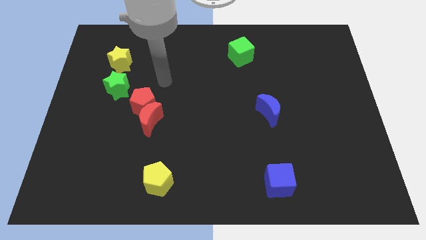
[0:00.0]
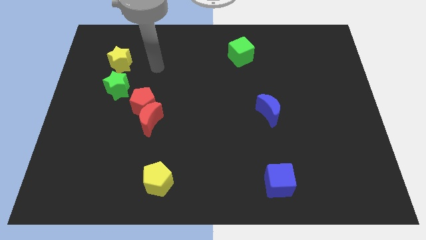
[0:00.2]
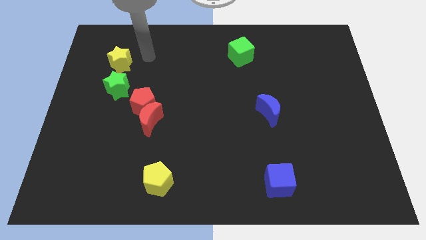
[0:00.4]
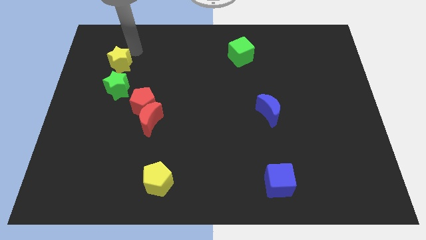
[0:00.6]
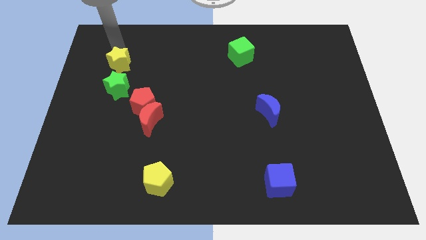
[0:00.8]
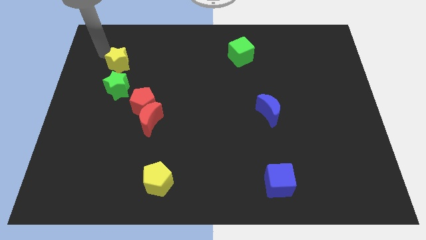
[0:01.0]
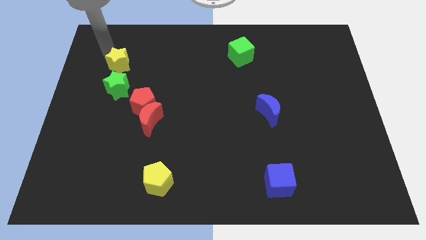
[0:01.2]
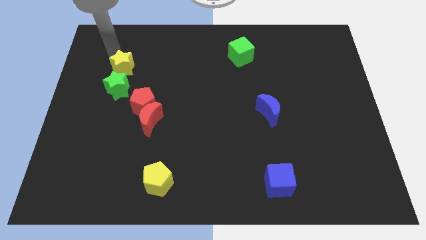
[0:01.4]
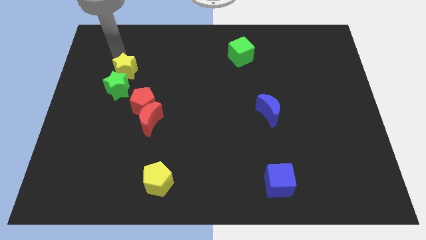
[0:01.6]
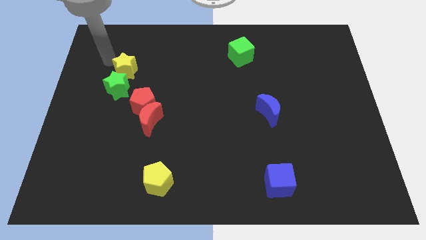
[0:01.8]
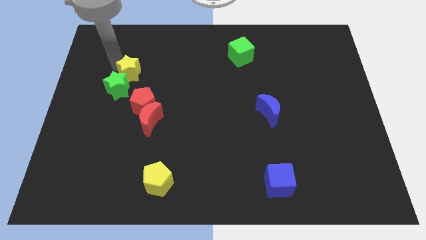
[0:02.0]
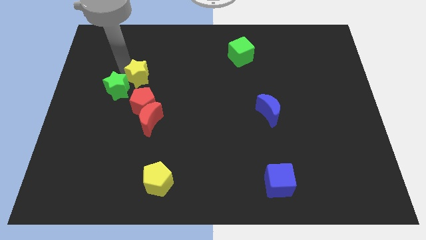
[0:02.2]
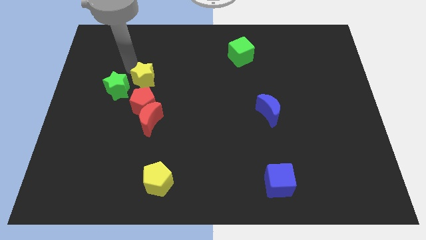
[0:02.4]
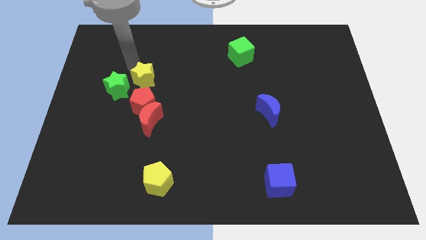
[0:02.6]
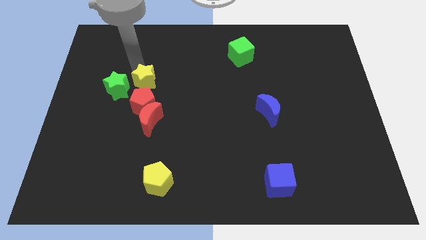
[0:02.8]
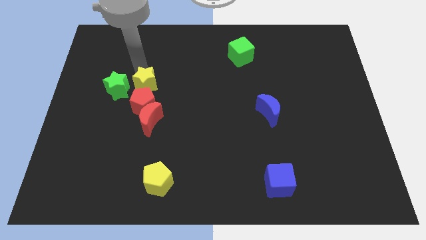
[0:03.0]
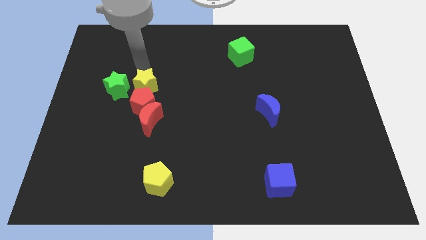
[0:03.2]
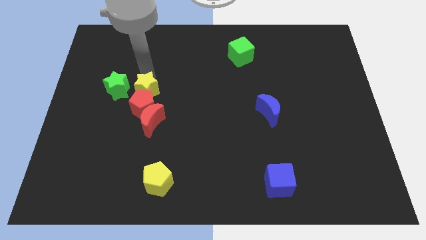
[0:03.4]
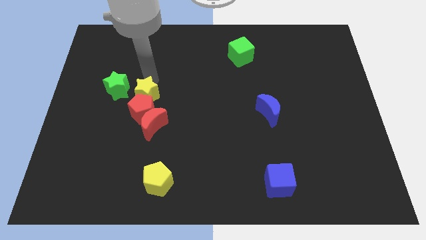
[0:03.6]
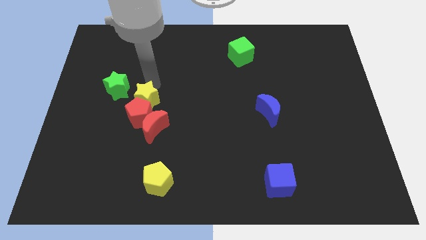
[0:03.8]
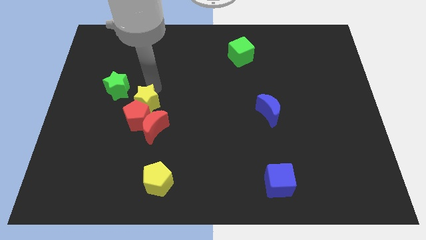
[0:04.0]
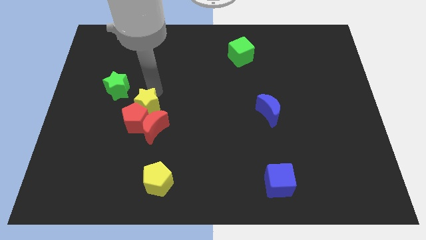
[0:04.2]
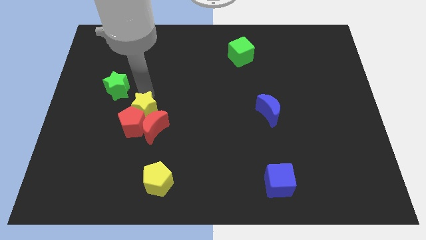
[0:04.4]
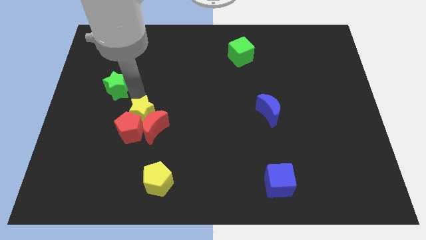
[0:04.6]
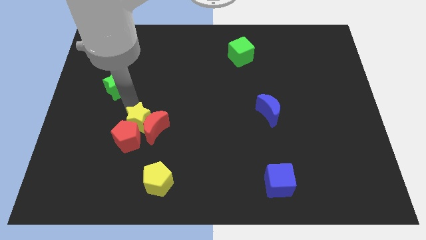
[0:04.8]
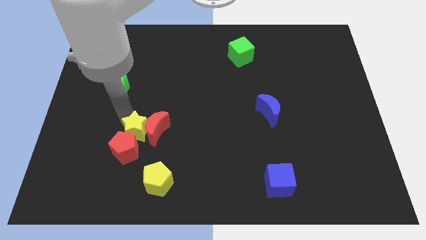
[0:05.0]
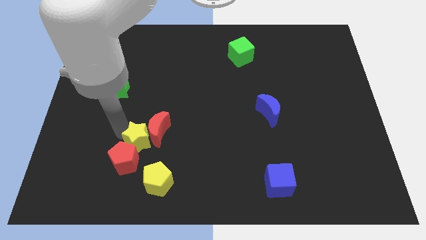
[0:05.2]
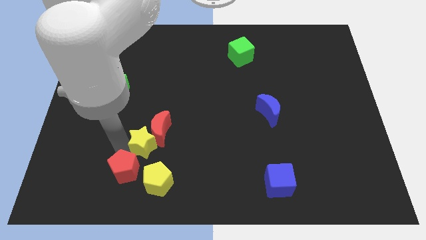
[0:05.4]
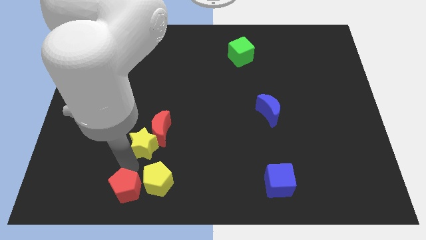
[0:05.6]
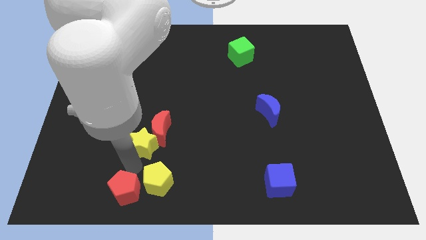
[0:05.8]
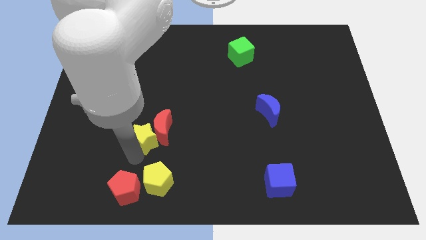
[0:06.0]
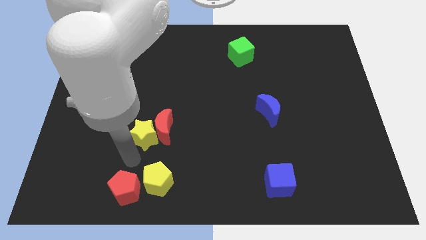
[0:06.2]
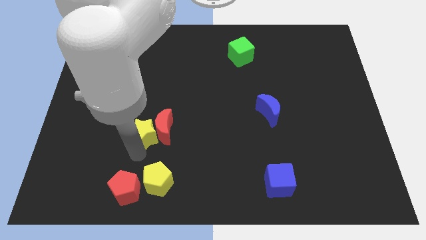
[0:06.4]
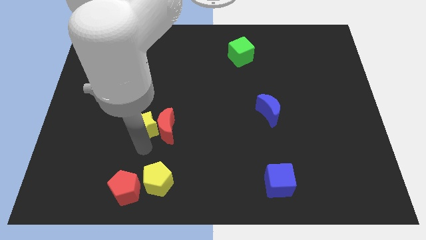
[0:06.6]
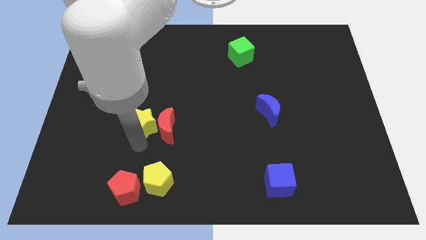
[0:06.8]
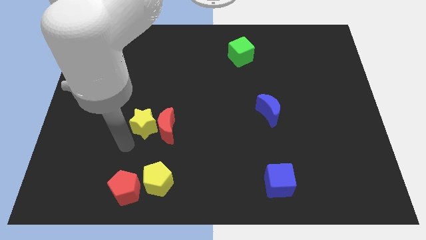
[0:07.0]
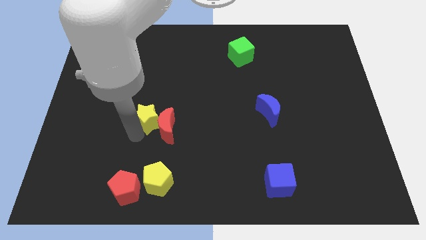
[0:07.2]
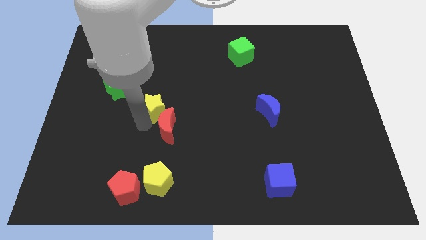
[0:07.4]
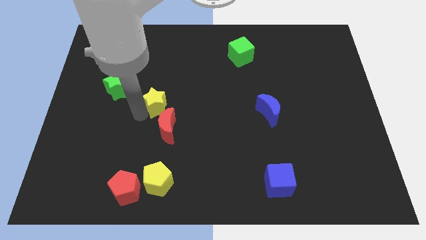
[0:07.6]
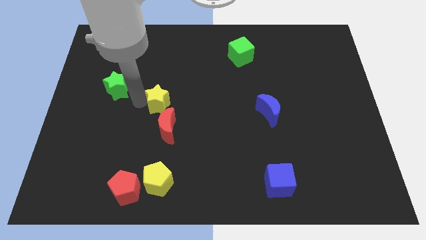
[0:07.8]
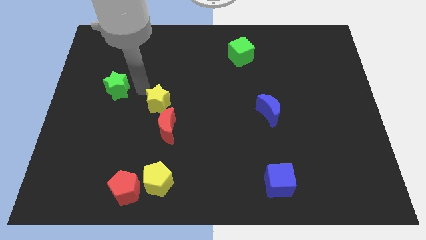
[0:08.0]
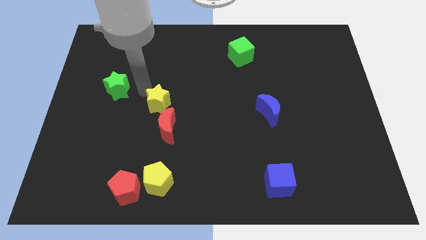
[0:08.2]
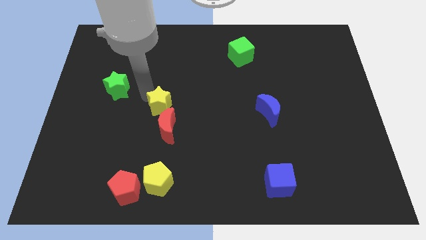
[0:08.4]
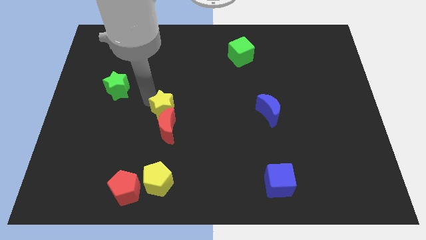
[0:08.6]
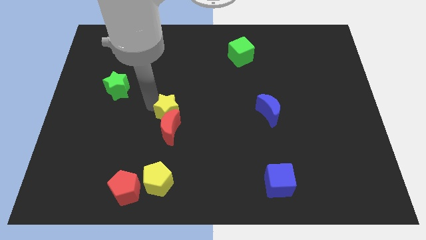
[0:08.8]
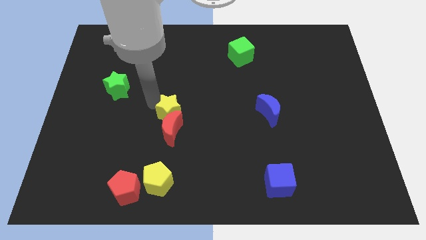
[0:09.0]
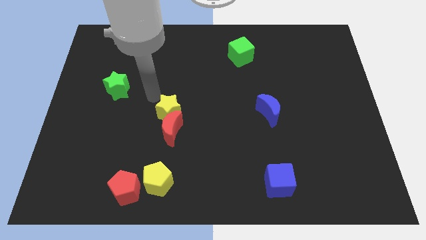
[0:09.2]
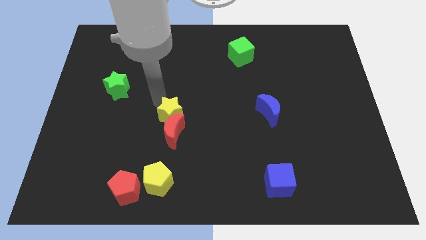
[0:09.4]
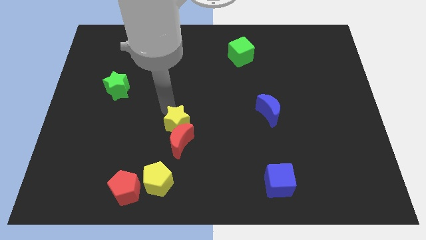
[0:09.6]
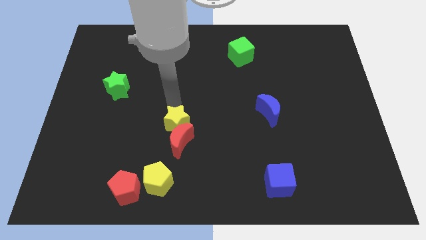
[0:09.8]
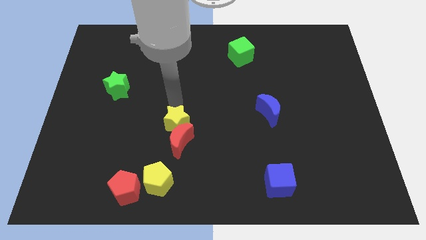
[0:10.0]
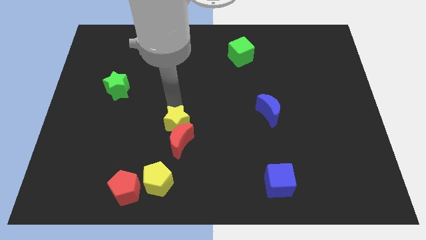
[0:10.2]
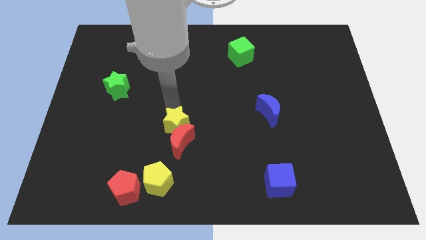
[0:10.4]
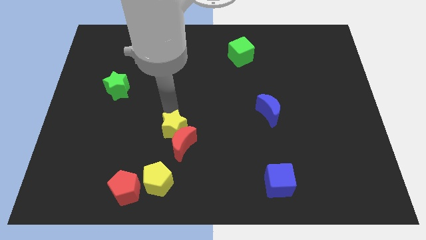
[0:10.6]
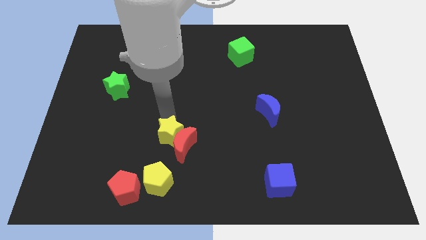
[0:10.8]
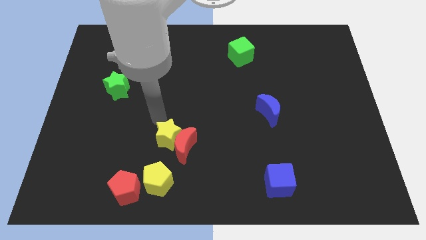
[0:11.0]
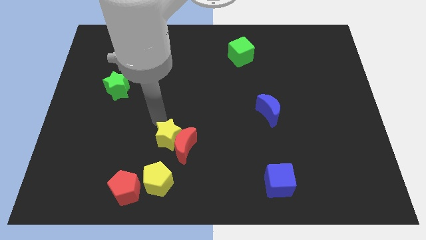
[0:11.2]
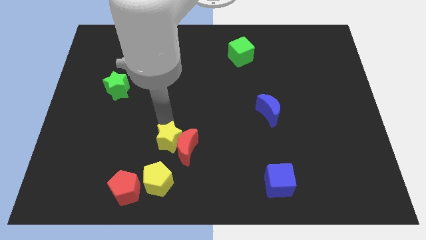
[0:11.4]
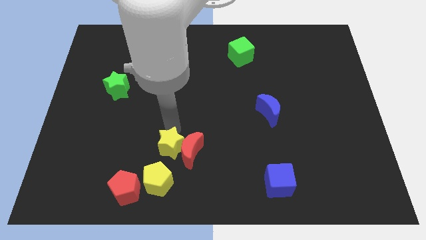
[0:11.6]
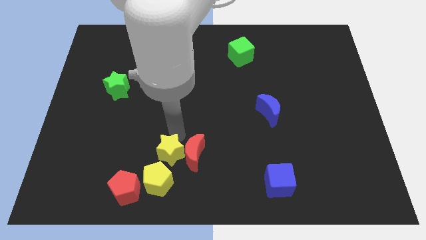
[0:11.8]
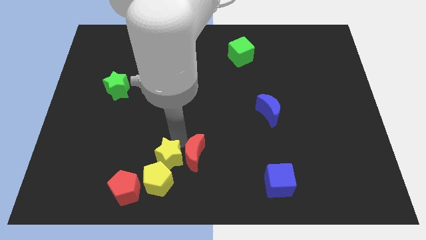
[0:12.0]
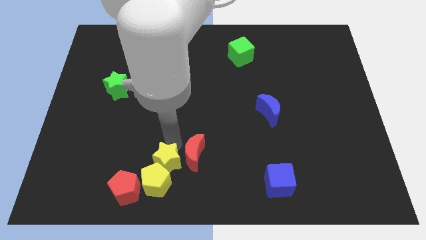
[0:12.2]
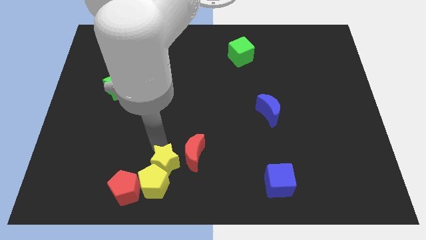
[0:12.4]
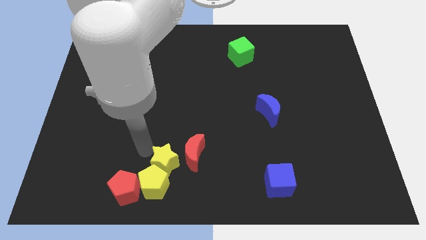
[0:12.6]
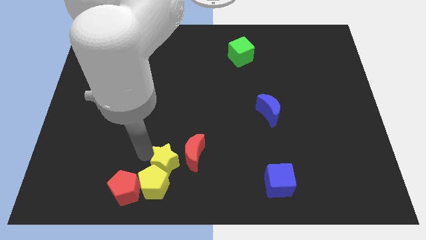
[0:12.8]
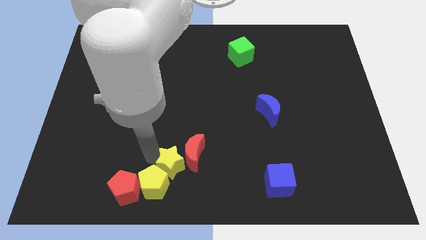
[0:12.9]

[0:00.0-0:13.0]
put the yellow star to the bottom side
